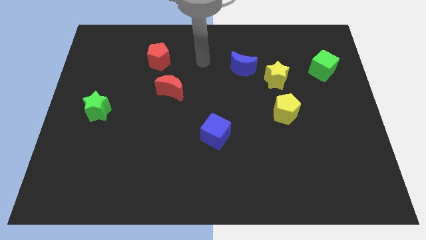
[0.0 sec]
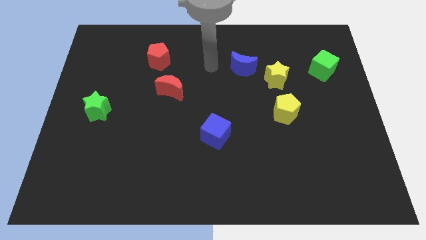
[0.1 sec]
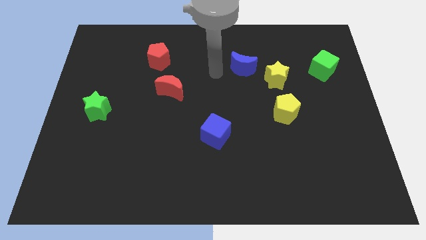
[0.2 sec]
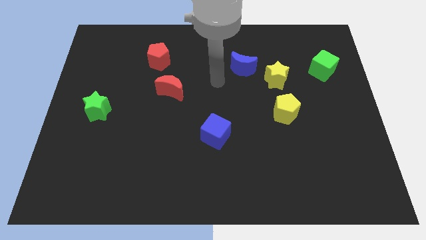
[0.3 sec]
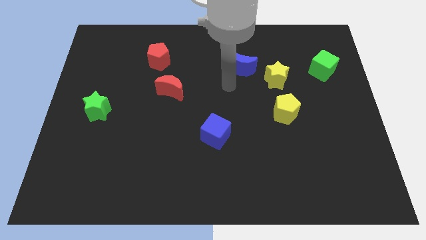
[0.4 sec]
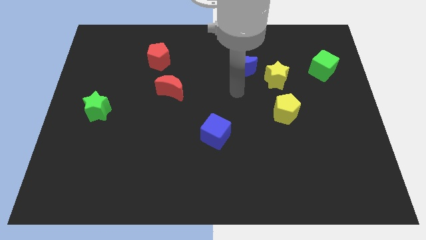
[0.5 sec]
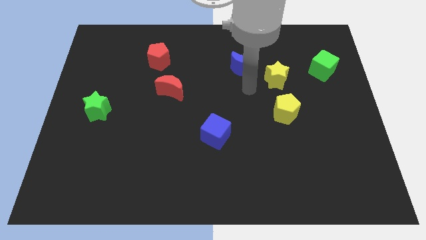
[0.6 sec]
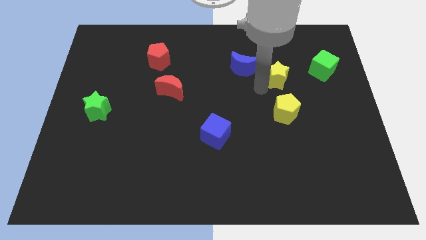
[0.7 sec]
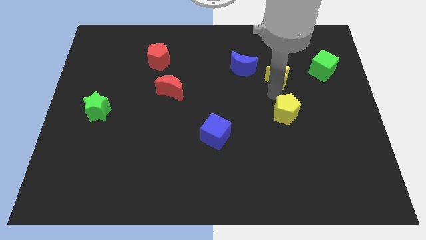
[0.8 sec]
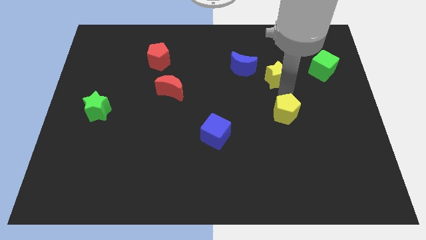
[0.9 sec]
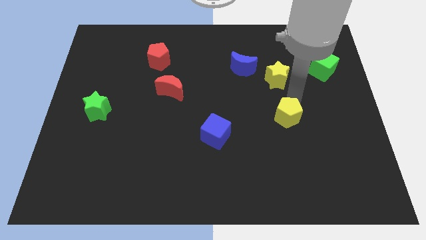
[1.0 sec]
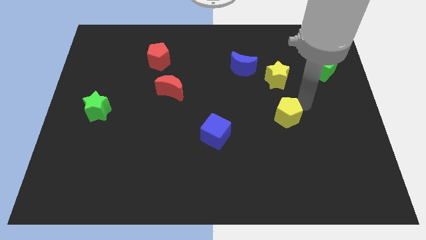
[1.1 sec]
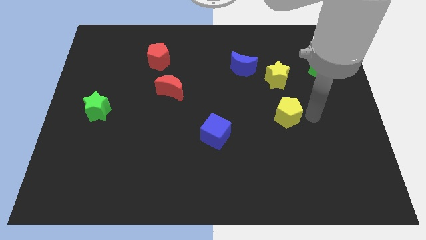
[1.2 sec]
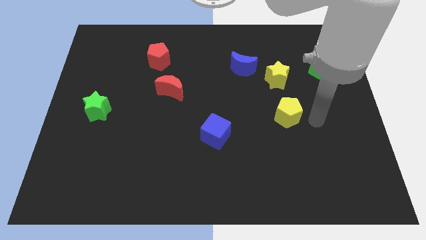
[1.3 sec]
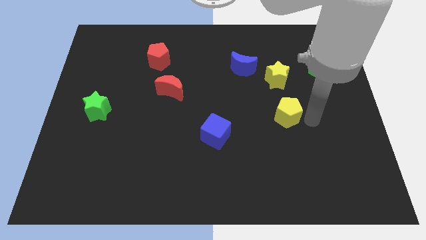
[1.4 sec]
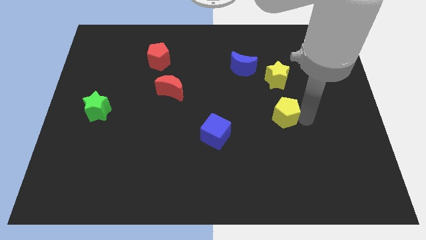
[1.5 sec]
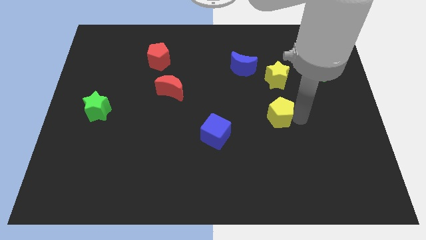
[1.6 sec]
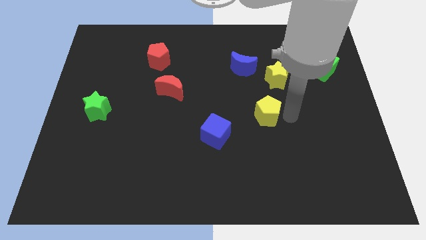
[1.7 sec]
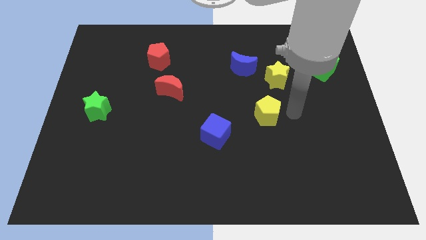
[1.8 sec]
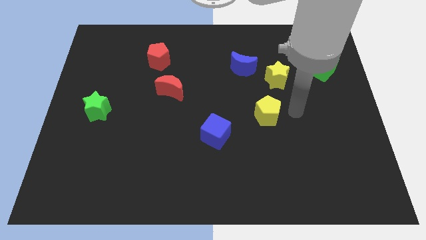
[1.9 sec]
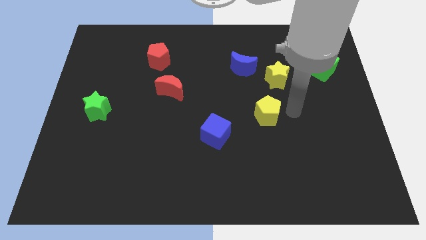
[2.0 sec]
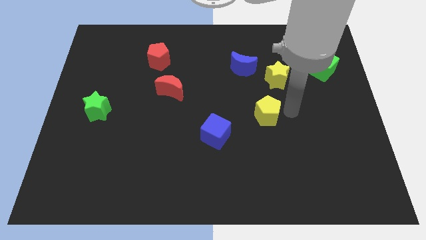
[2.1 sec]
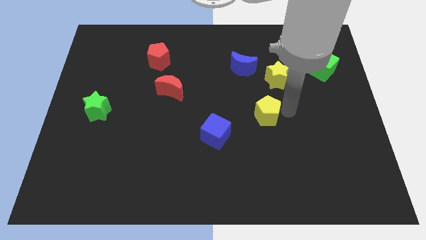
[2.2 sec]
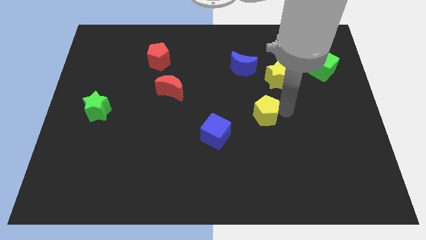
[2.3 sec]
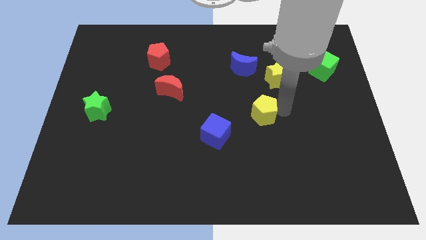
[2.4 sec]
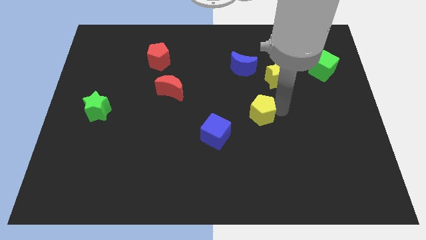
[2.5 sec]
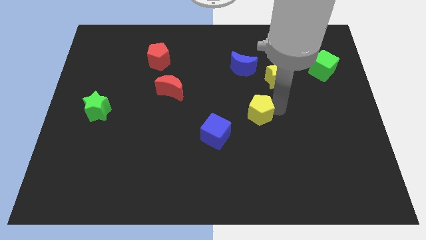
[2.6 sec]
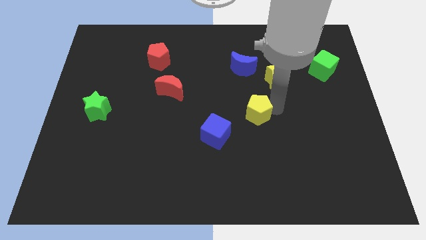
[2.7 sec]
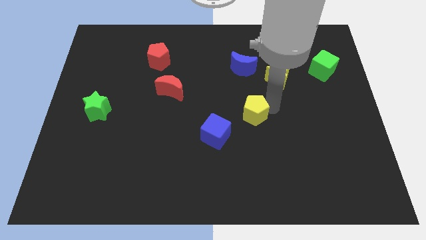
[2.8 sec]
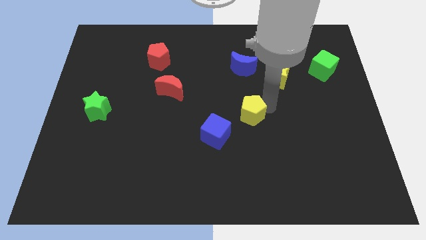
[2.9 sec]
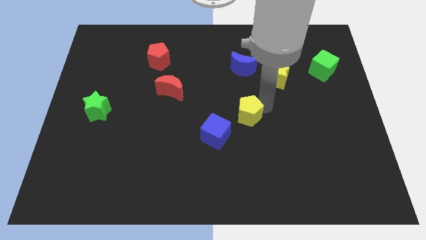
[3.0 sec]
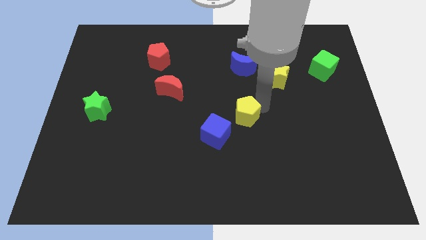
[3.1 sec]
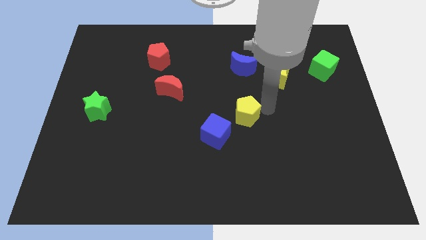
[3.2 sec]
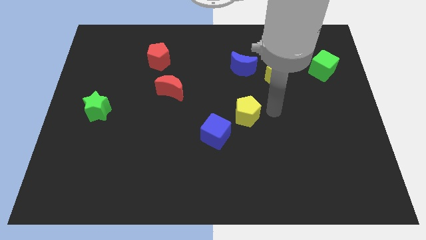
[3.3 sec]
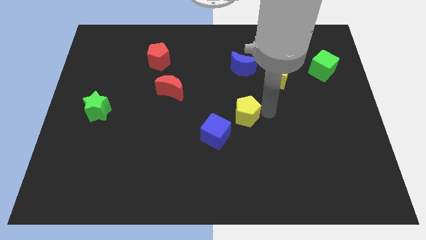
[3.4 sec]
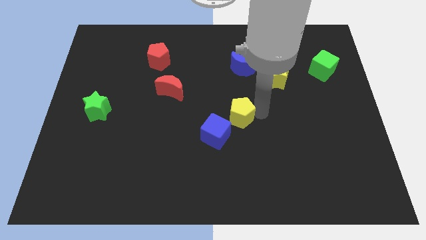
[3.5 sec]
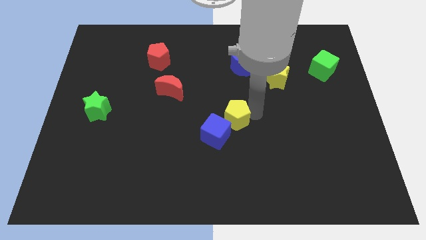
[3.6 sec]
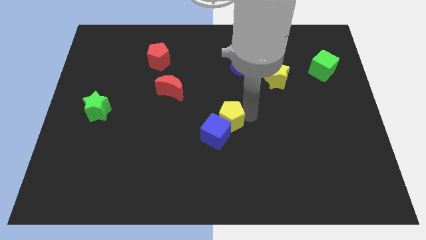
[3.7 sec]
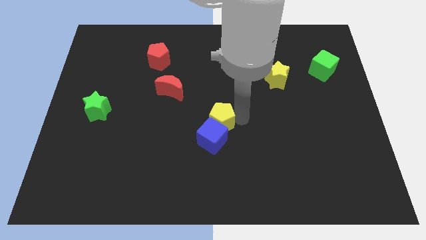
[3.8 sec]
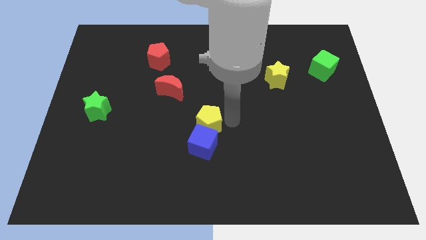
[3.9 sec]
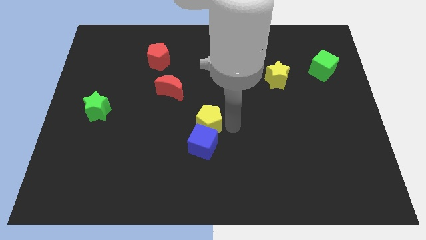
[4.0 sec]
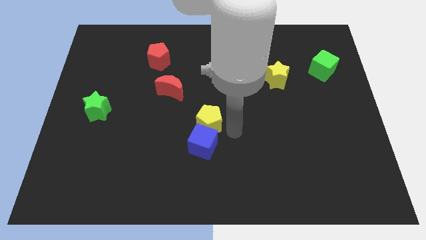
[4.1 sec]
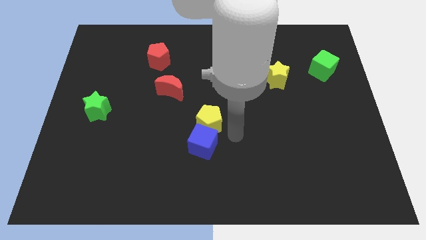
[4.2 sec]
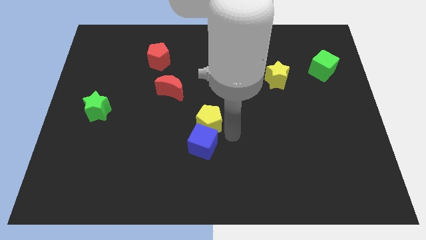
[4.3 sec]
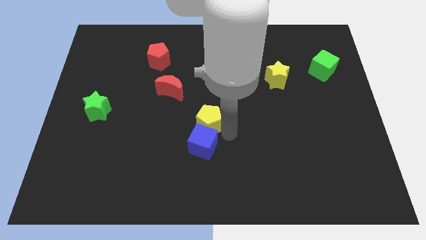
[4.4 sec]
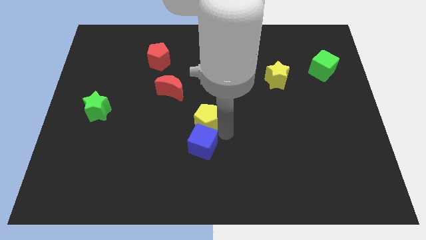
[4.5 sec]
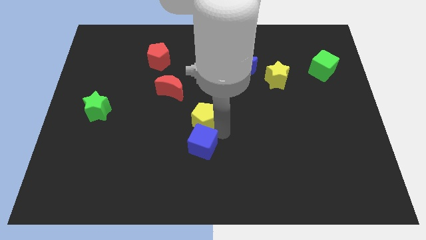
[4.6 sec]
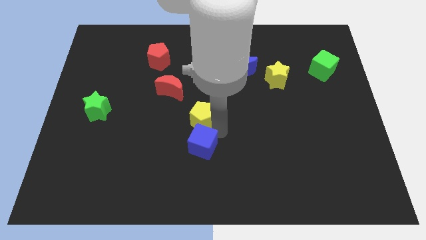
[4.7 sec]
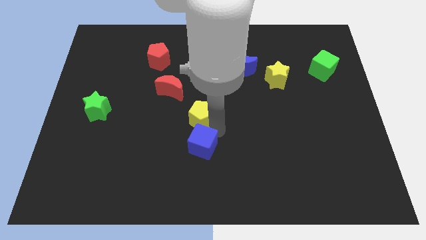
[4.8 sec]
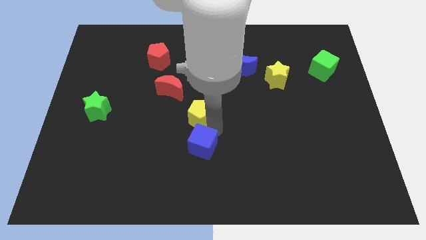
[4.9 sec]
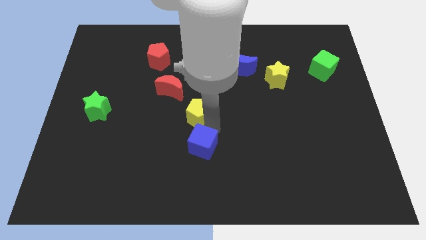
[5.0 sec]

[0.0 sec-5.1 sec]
push the yellow pentagon to the left

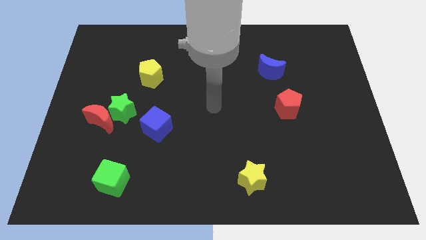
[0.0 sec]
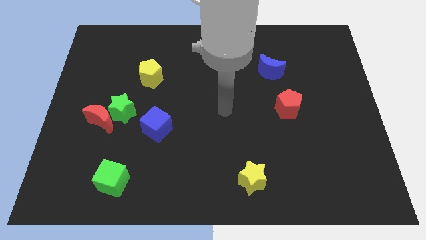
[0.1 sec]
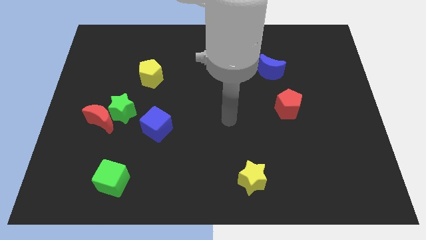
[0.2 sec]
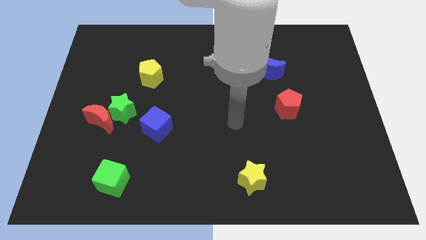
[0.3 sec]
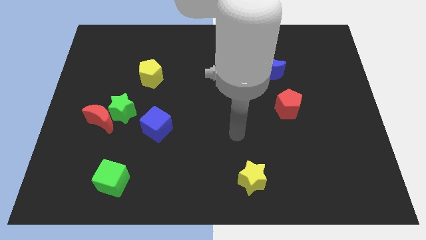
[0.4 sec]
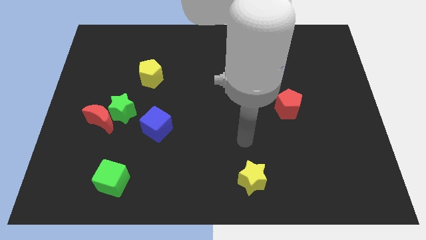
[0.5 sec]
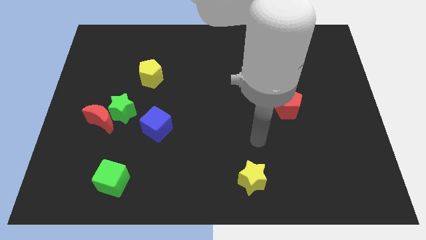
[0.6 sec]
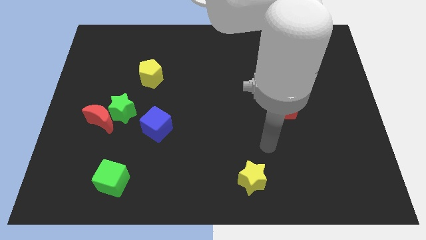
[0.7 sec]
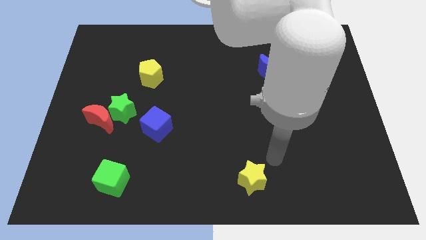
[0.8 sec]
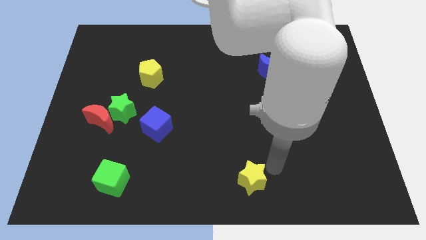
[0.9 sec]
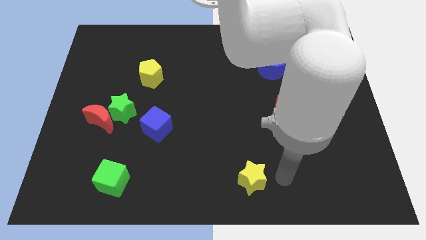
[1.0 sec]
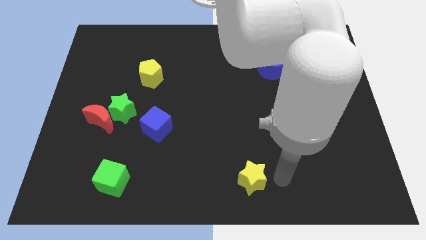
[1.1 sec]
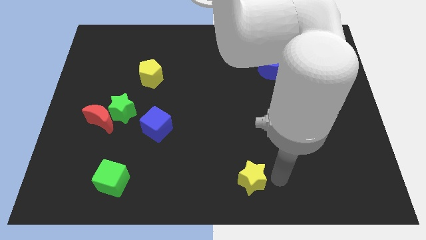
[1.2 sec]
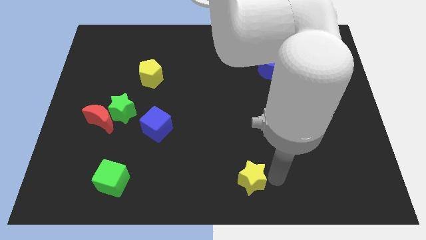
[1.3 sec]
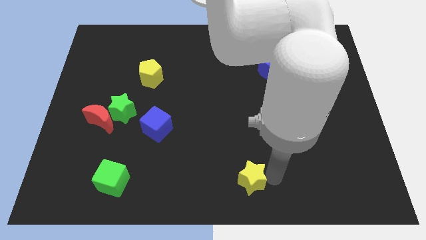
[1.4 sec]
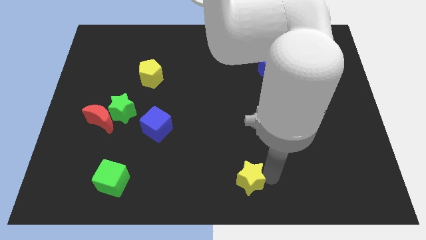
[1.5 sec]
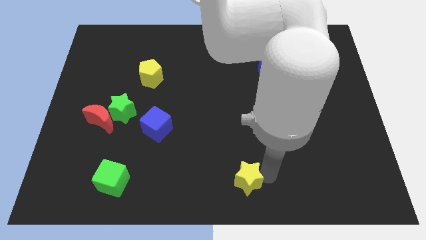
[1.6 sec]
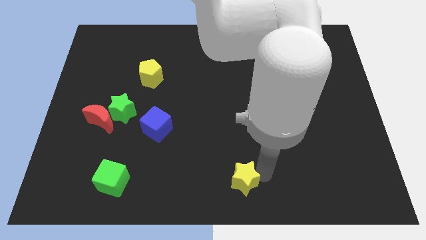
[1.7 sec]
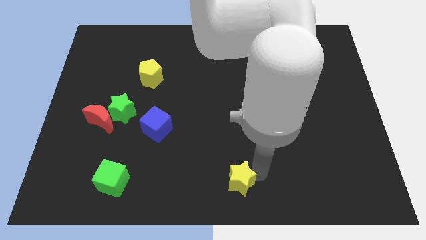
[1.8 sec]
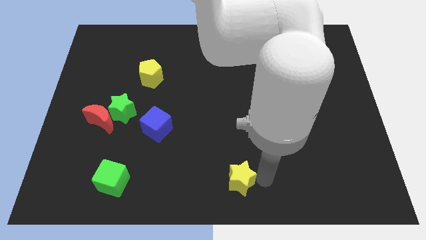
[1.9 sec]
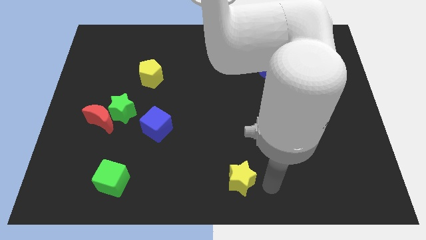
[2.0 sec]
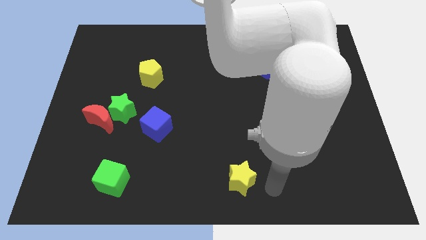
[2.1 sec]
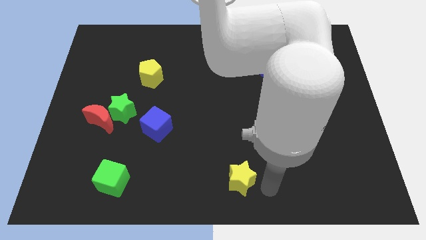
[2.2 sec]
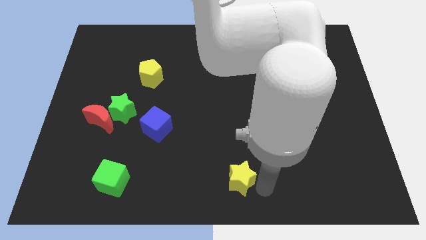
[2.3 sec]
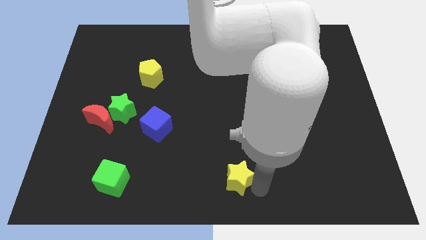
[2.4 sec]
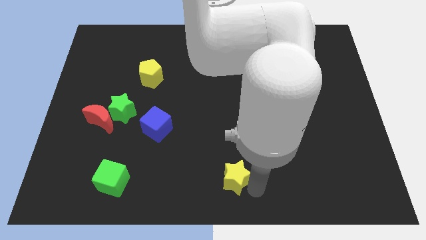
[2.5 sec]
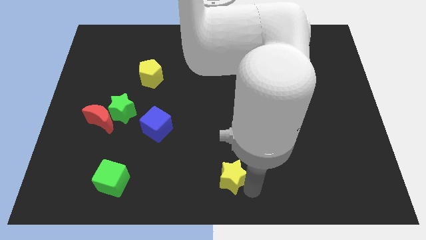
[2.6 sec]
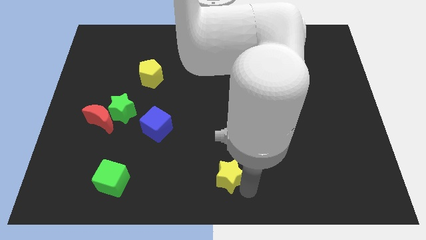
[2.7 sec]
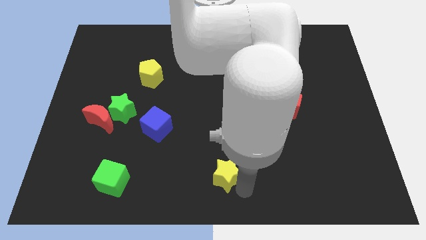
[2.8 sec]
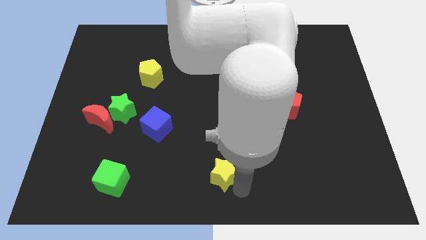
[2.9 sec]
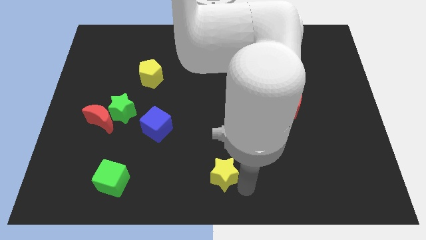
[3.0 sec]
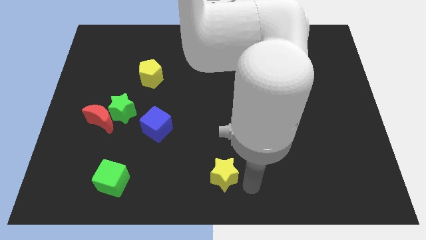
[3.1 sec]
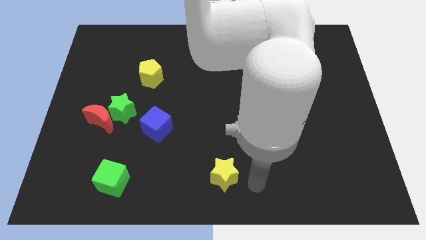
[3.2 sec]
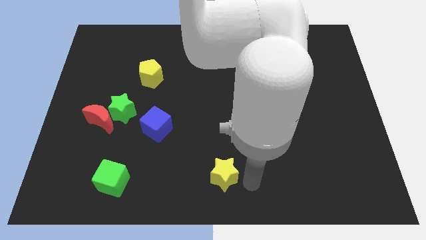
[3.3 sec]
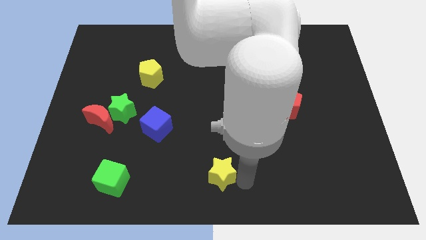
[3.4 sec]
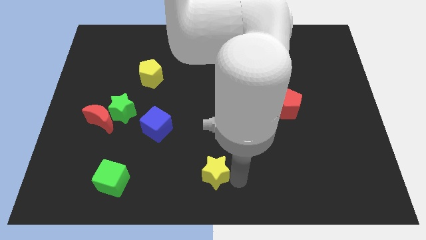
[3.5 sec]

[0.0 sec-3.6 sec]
slightly move the yellow star to the left
